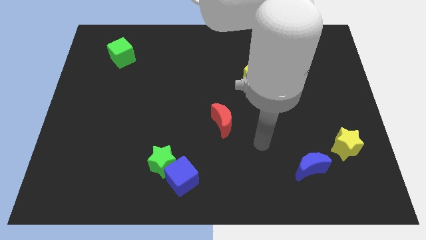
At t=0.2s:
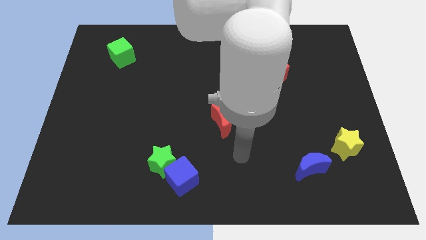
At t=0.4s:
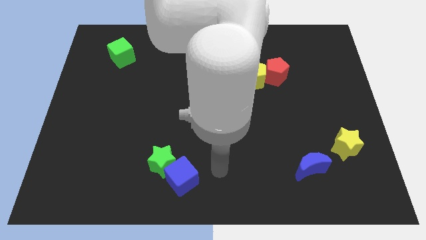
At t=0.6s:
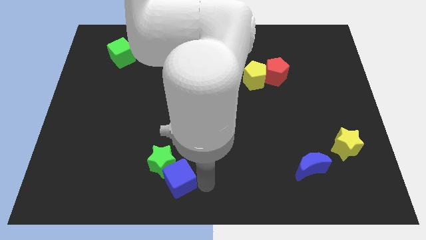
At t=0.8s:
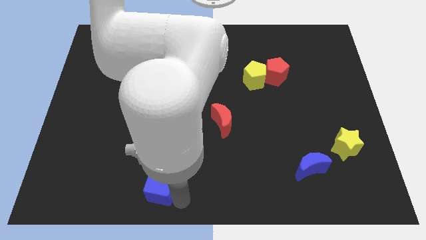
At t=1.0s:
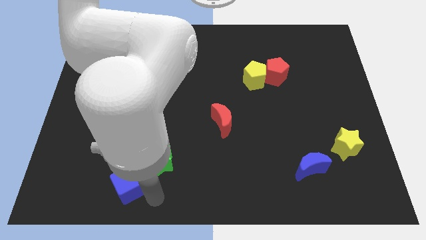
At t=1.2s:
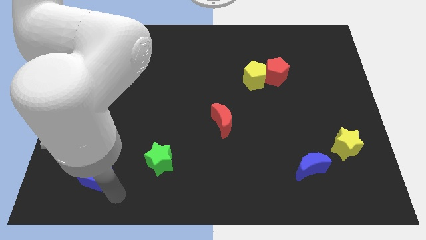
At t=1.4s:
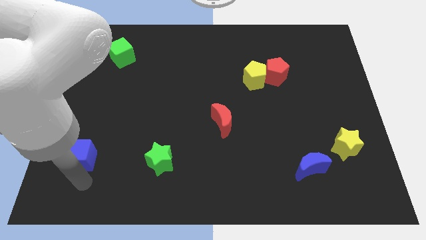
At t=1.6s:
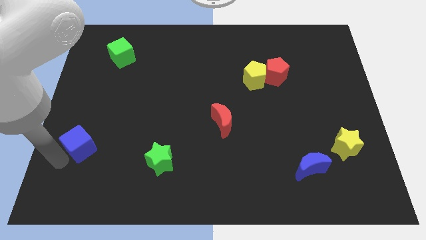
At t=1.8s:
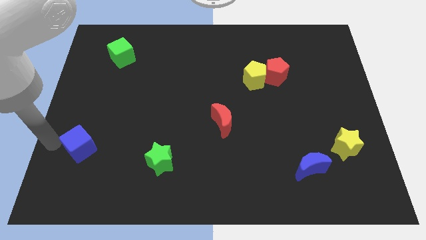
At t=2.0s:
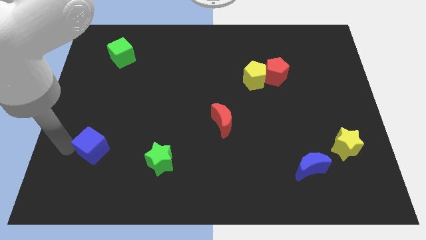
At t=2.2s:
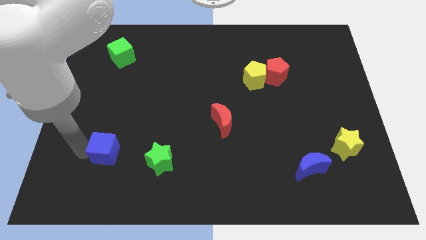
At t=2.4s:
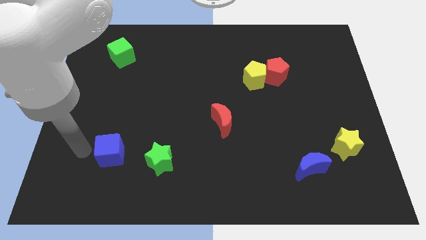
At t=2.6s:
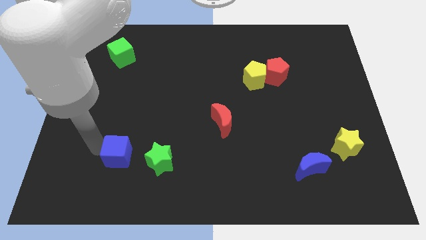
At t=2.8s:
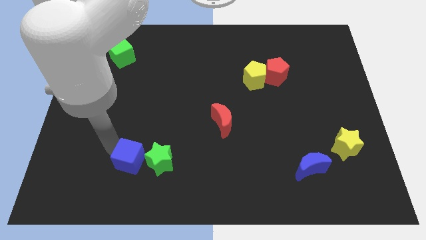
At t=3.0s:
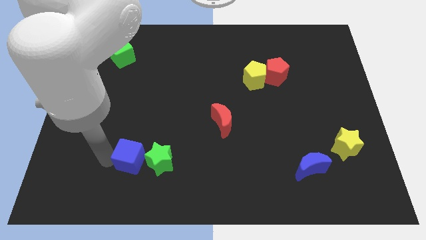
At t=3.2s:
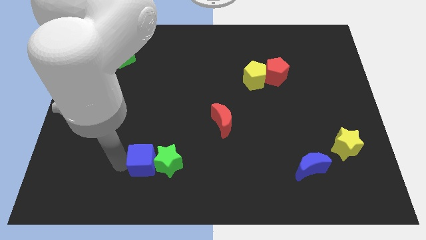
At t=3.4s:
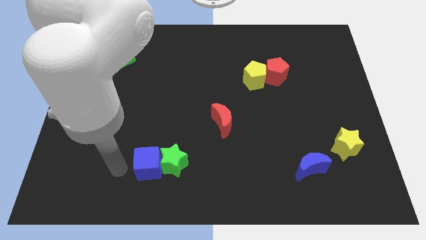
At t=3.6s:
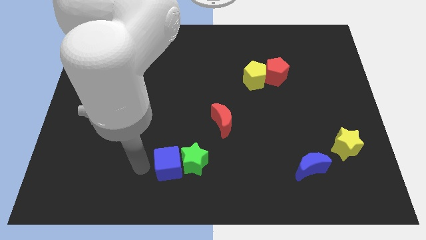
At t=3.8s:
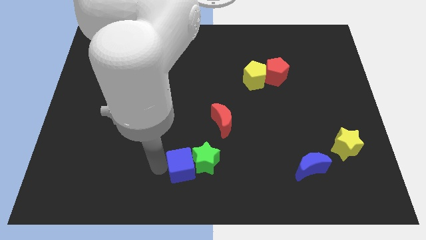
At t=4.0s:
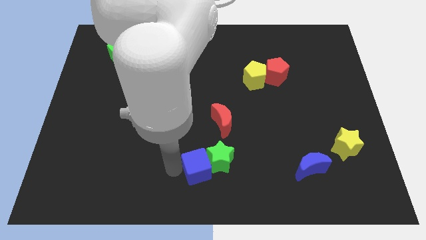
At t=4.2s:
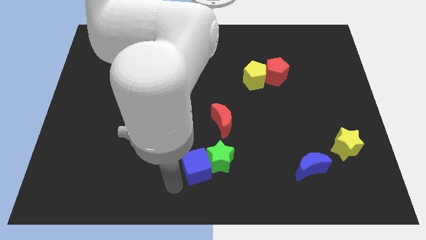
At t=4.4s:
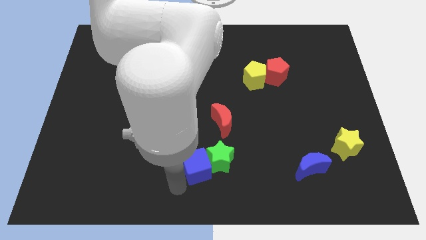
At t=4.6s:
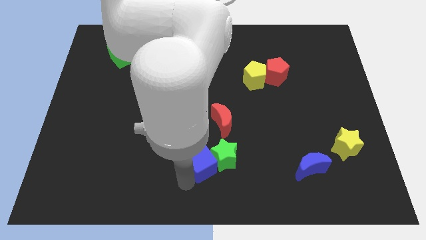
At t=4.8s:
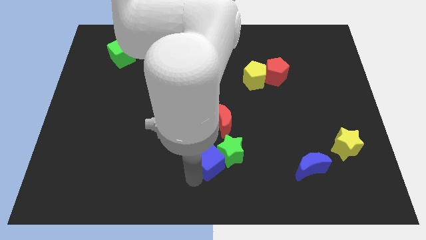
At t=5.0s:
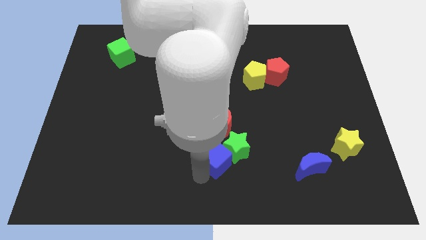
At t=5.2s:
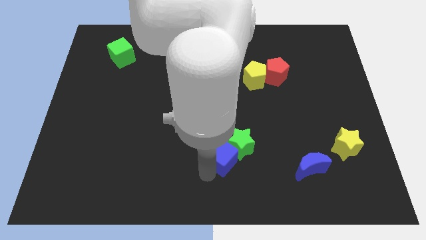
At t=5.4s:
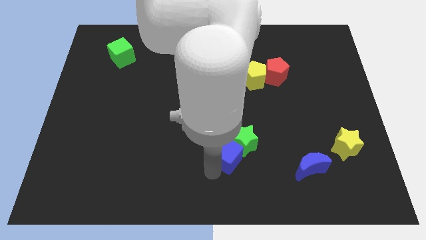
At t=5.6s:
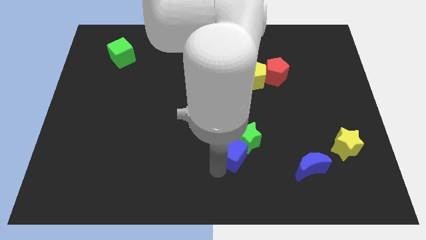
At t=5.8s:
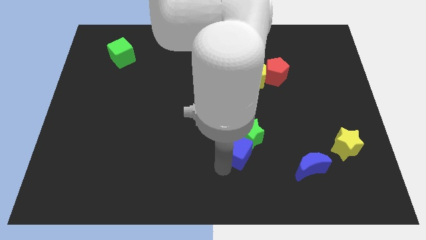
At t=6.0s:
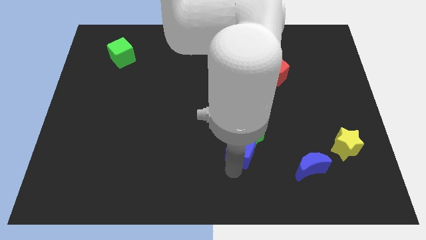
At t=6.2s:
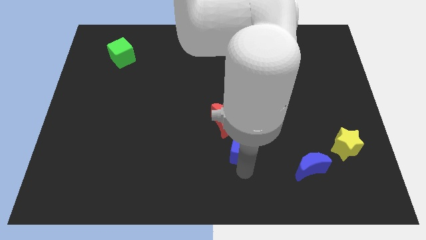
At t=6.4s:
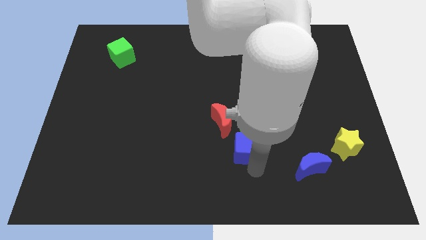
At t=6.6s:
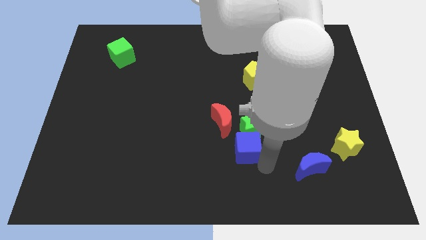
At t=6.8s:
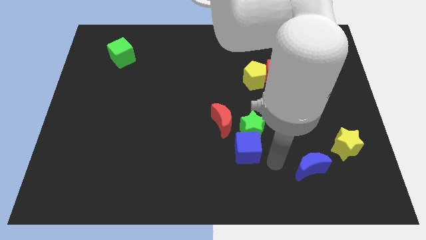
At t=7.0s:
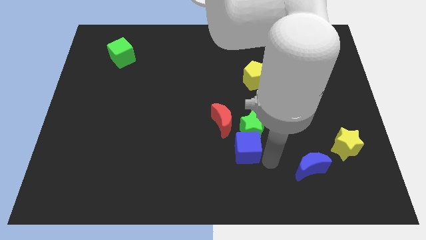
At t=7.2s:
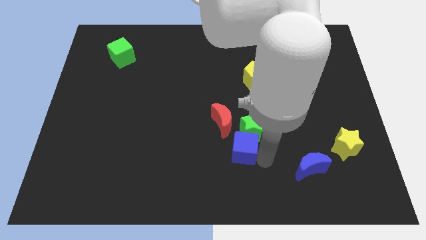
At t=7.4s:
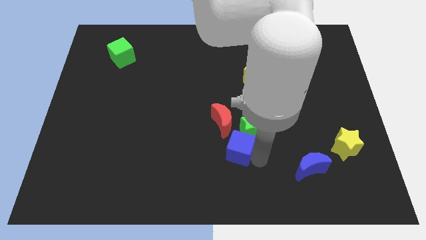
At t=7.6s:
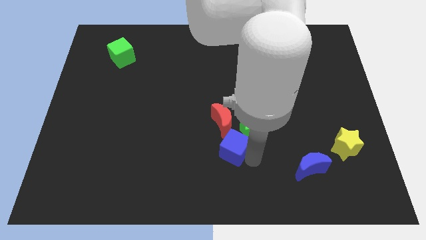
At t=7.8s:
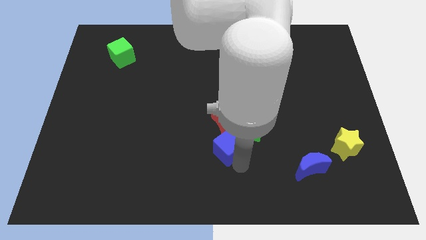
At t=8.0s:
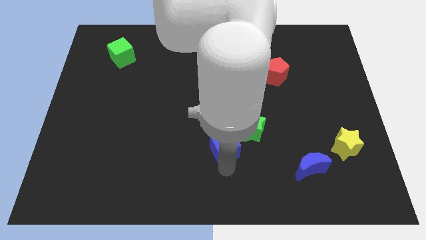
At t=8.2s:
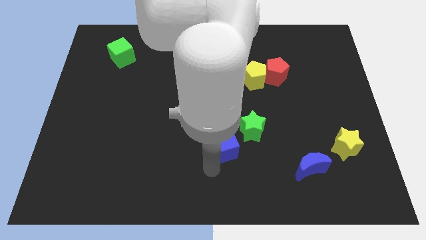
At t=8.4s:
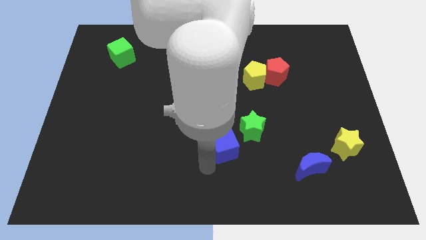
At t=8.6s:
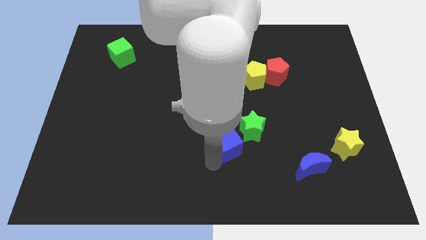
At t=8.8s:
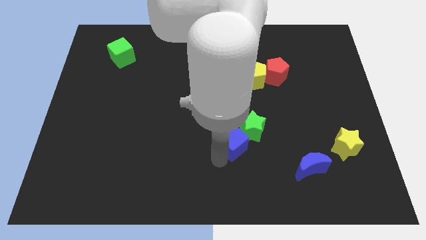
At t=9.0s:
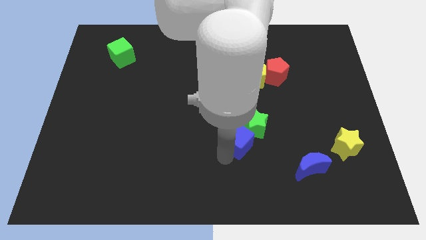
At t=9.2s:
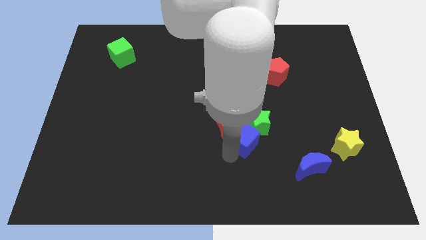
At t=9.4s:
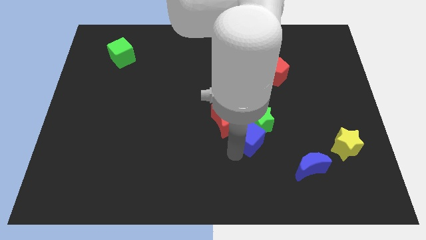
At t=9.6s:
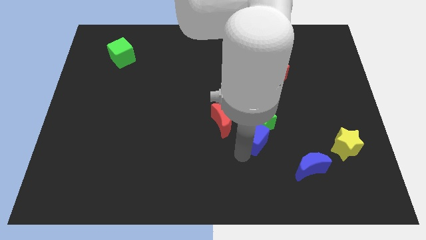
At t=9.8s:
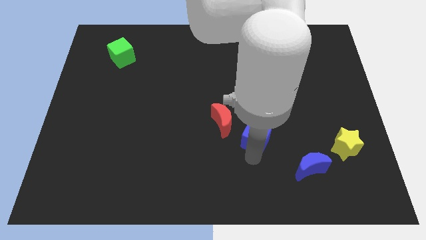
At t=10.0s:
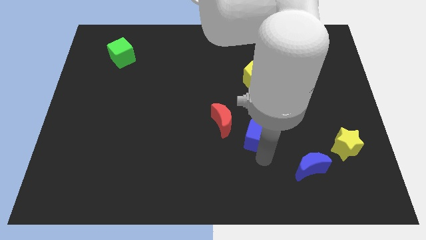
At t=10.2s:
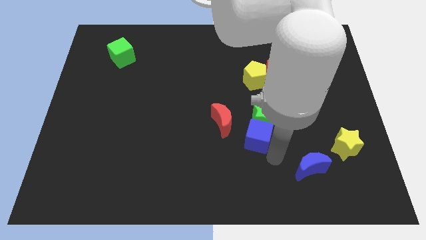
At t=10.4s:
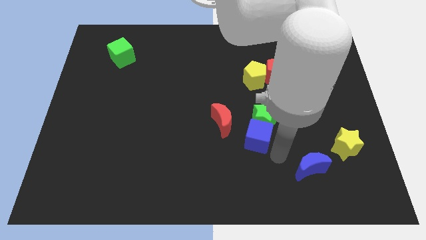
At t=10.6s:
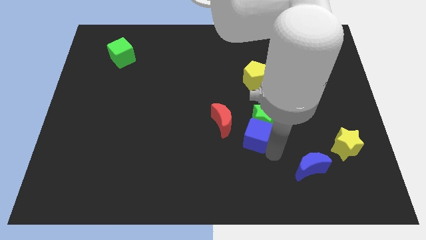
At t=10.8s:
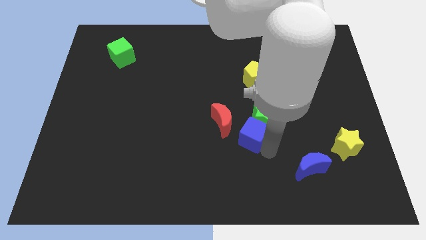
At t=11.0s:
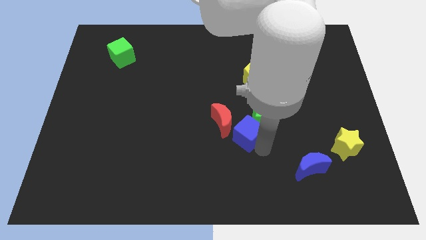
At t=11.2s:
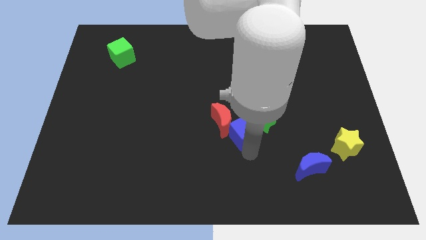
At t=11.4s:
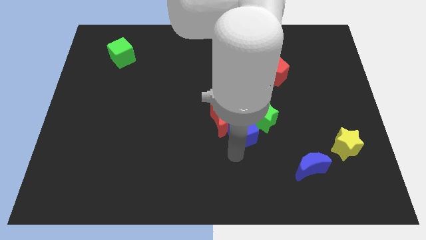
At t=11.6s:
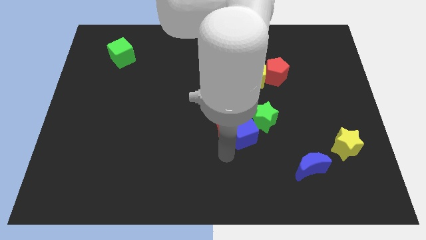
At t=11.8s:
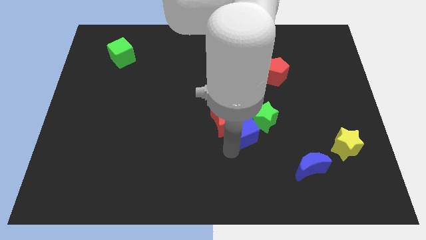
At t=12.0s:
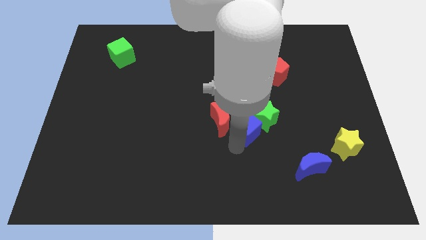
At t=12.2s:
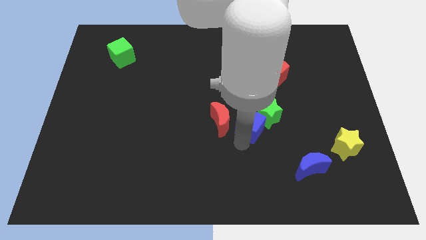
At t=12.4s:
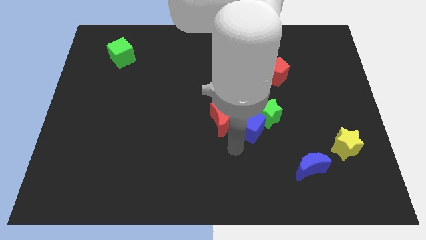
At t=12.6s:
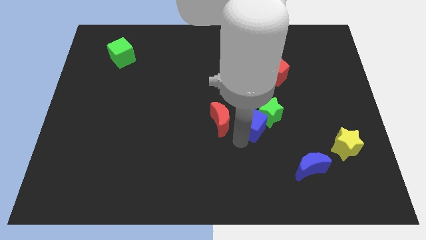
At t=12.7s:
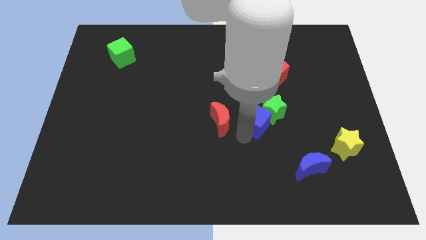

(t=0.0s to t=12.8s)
push the blue cube up and then to the right

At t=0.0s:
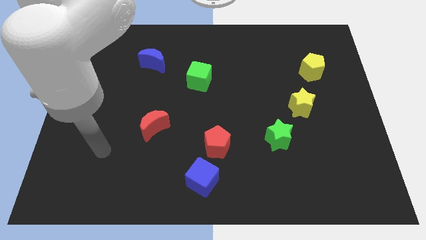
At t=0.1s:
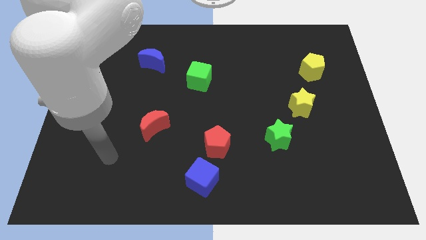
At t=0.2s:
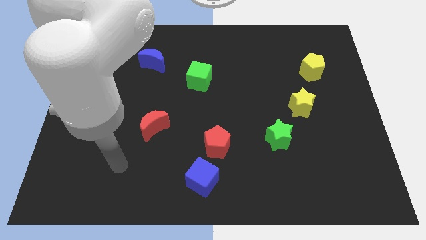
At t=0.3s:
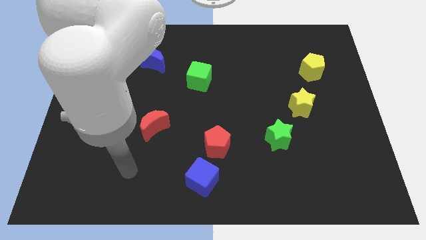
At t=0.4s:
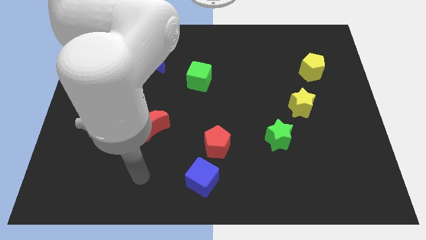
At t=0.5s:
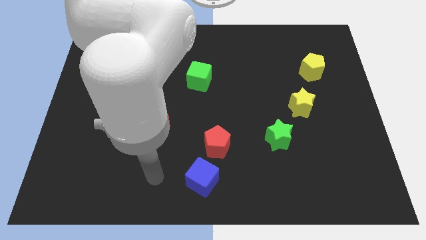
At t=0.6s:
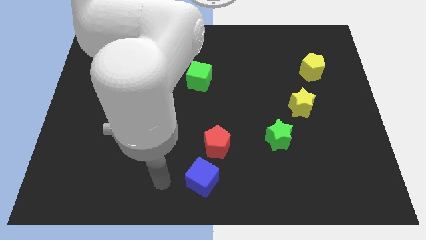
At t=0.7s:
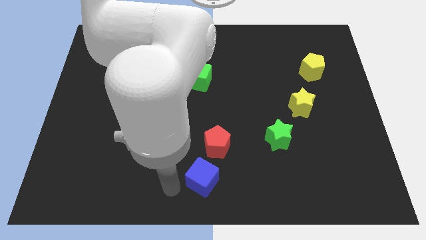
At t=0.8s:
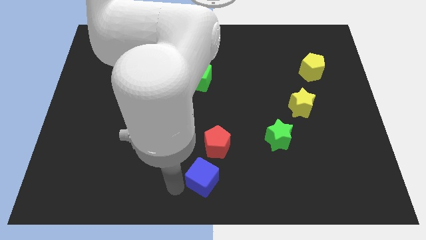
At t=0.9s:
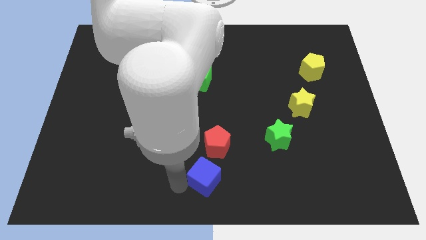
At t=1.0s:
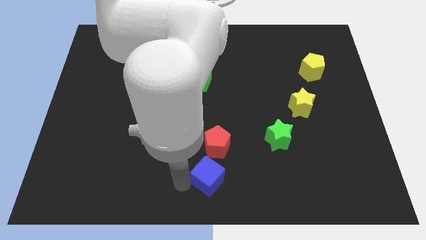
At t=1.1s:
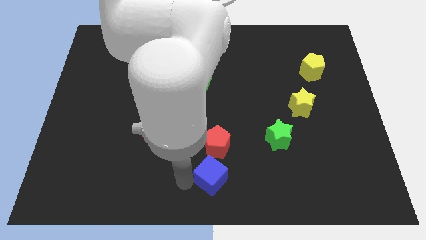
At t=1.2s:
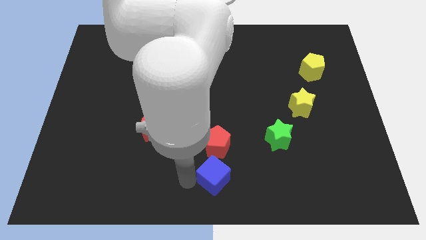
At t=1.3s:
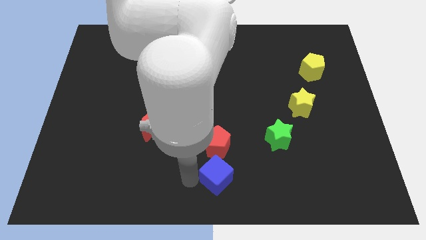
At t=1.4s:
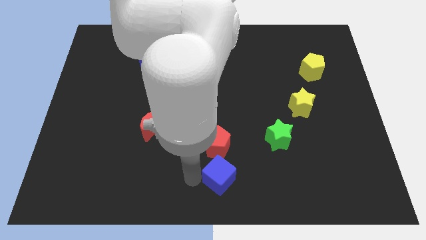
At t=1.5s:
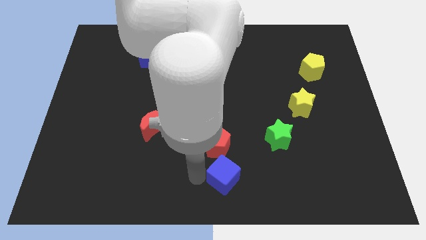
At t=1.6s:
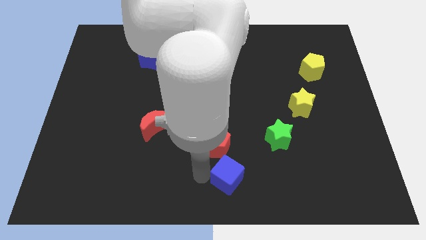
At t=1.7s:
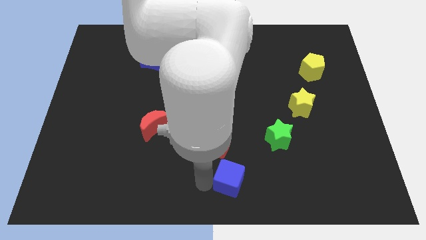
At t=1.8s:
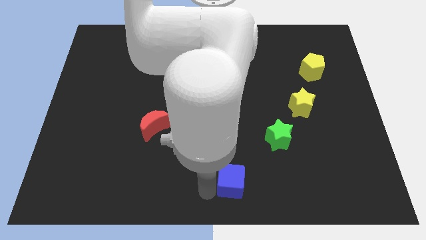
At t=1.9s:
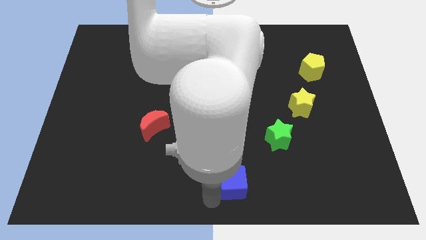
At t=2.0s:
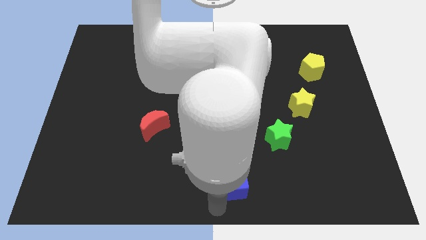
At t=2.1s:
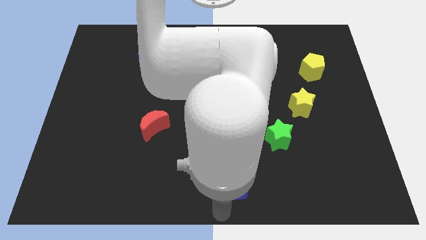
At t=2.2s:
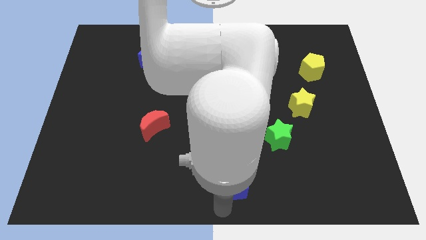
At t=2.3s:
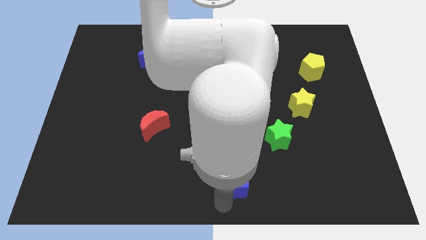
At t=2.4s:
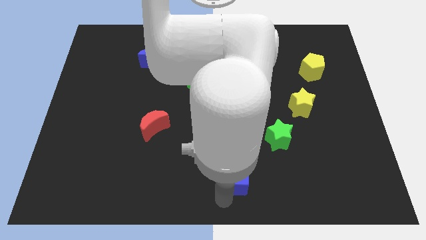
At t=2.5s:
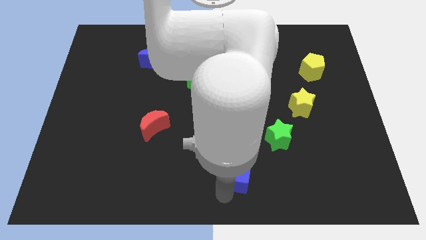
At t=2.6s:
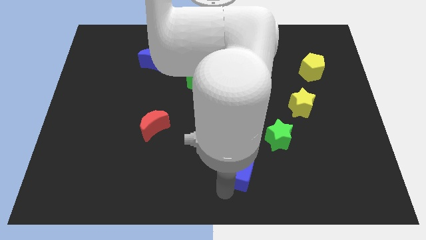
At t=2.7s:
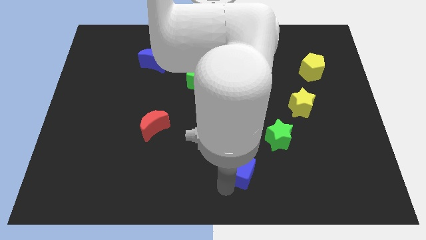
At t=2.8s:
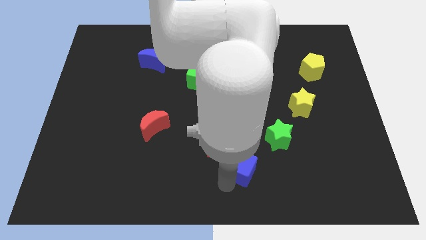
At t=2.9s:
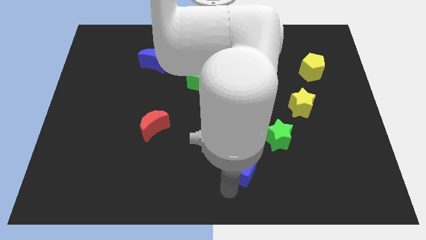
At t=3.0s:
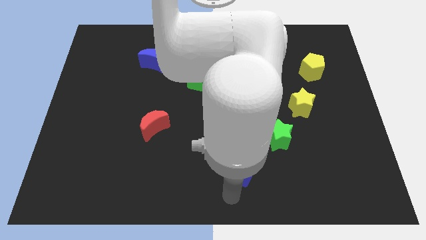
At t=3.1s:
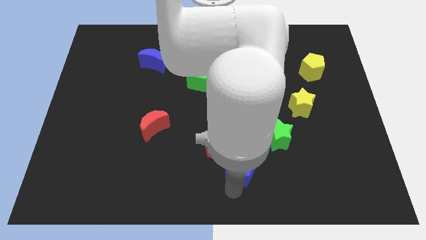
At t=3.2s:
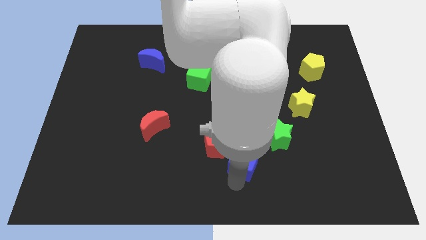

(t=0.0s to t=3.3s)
slightly move the blue cube upwards and then to the right
